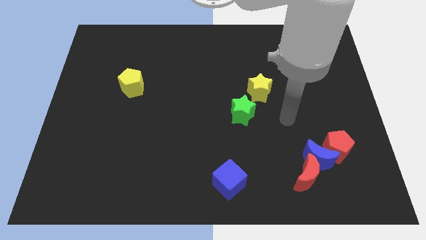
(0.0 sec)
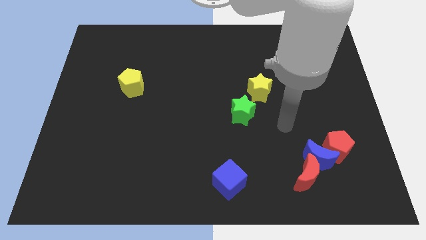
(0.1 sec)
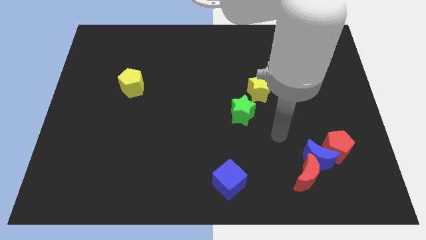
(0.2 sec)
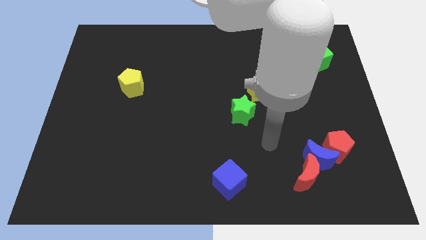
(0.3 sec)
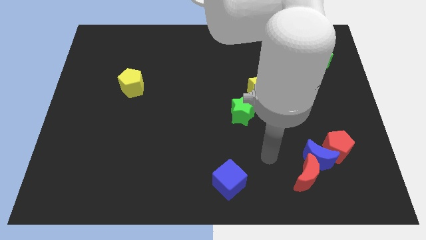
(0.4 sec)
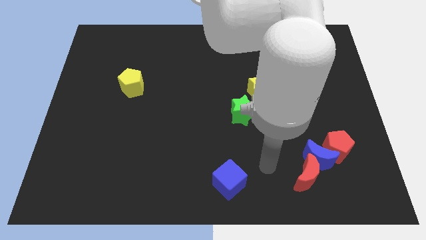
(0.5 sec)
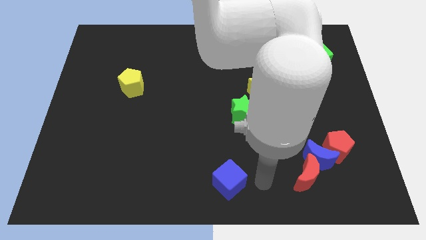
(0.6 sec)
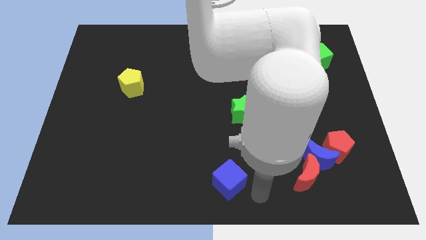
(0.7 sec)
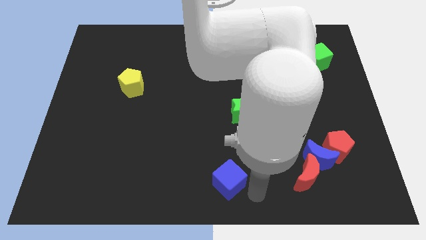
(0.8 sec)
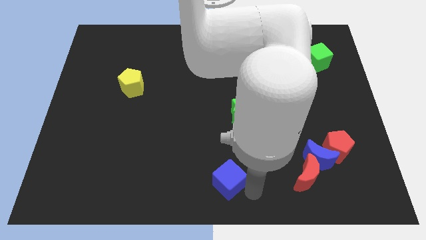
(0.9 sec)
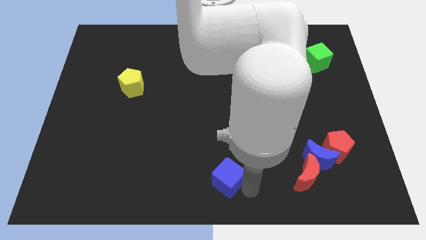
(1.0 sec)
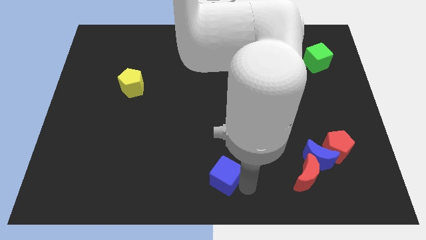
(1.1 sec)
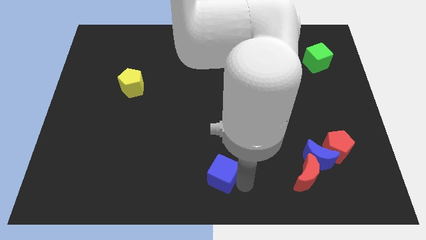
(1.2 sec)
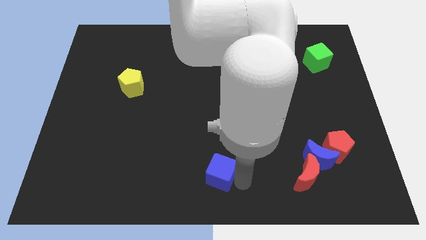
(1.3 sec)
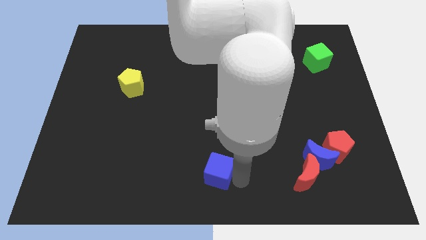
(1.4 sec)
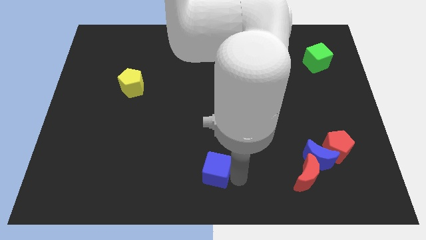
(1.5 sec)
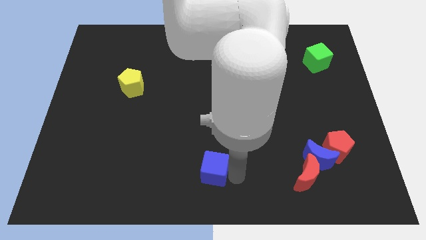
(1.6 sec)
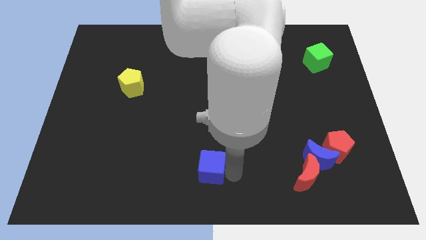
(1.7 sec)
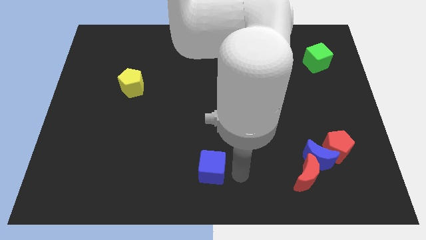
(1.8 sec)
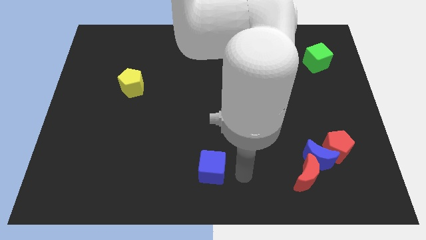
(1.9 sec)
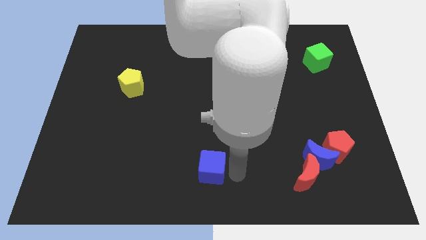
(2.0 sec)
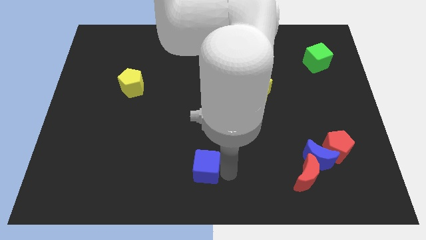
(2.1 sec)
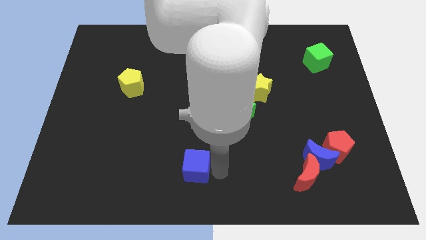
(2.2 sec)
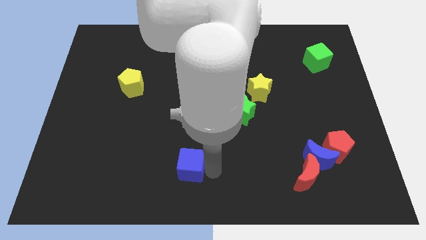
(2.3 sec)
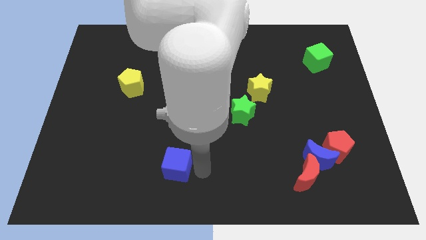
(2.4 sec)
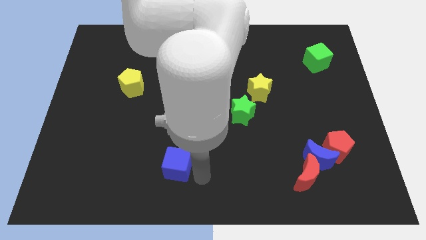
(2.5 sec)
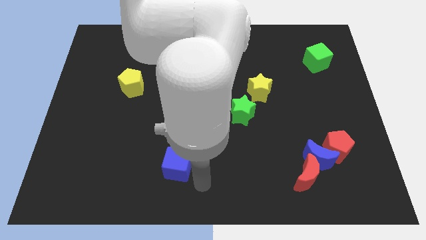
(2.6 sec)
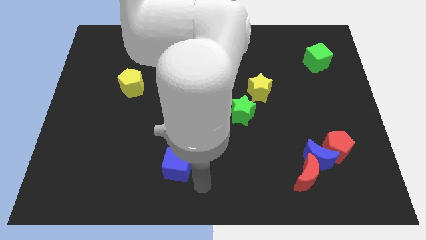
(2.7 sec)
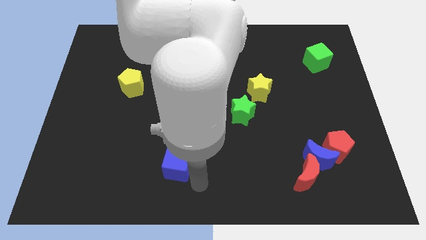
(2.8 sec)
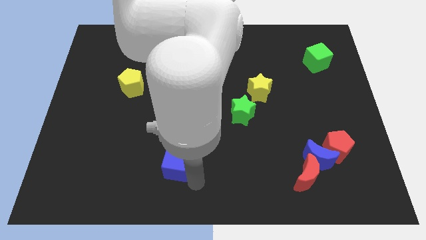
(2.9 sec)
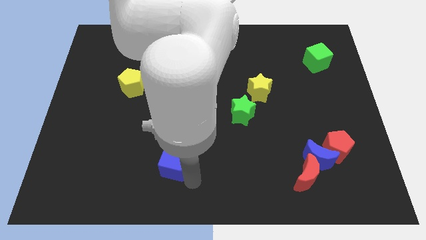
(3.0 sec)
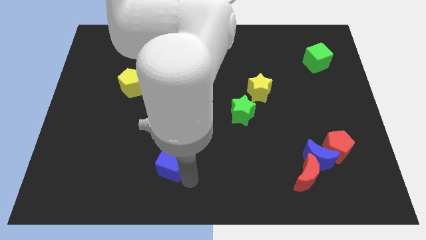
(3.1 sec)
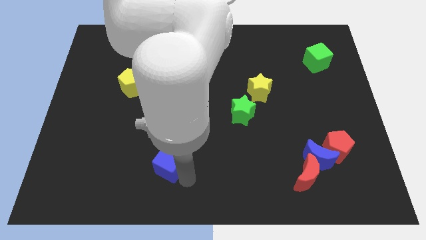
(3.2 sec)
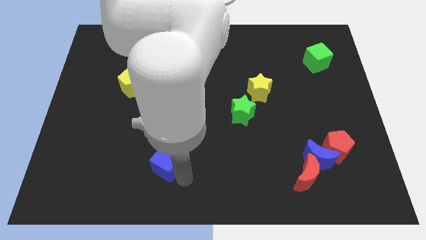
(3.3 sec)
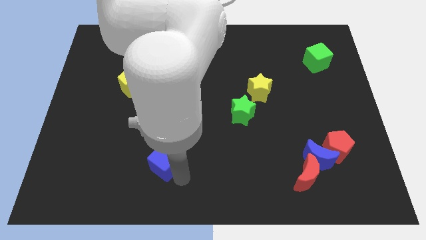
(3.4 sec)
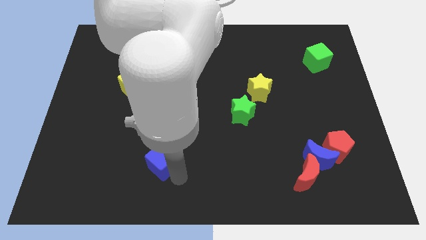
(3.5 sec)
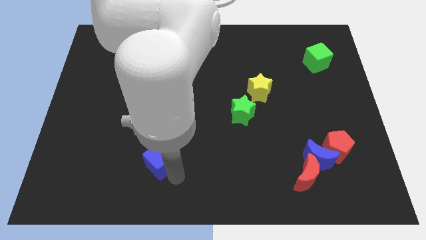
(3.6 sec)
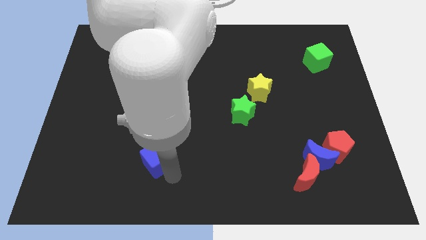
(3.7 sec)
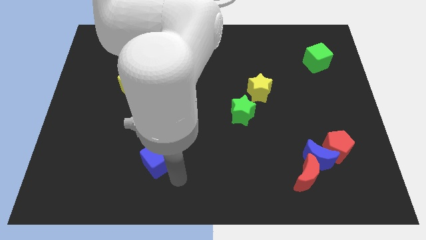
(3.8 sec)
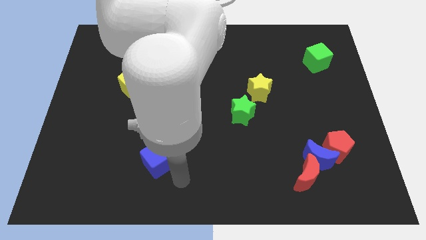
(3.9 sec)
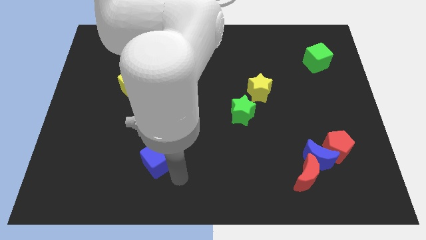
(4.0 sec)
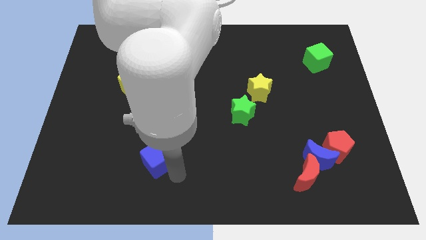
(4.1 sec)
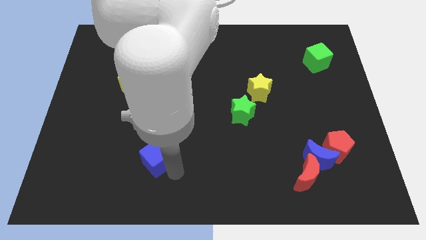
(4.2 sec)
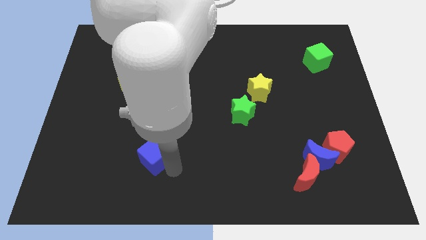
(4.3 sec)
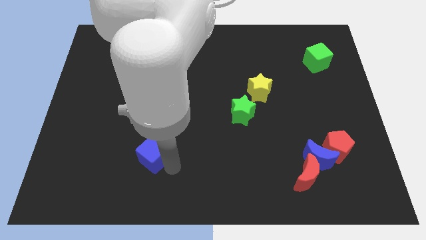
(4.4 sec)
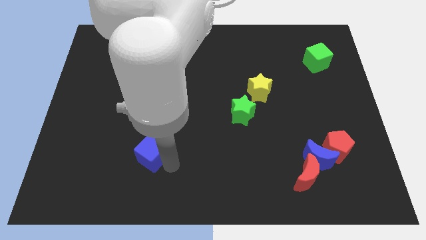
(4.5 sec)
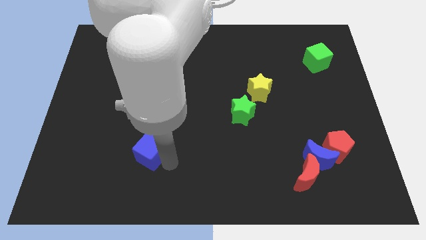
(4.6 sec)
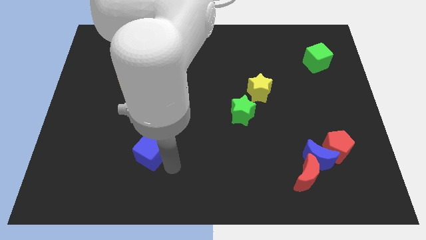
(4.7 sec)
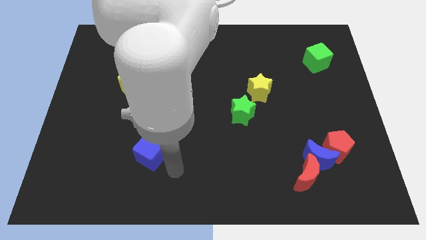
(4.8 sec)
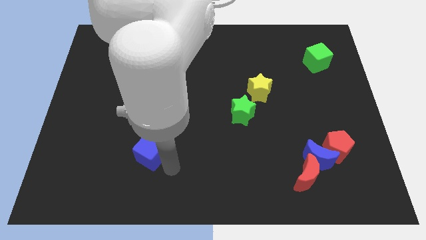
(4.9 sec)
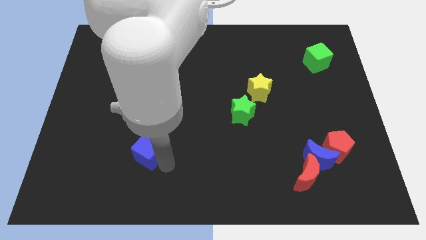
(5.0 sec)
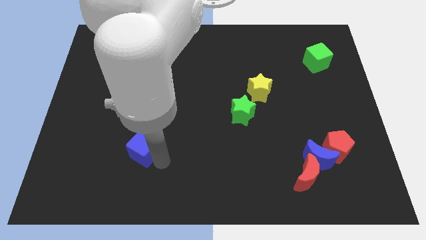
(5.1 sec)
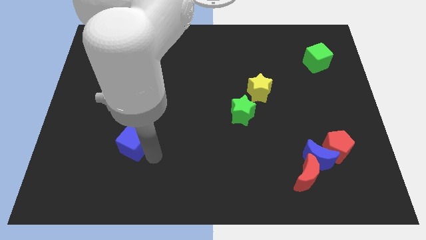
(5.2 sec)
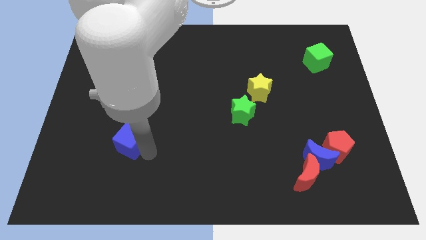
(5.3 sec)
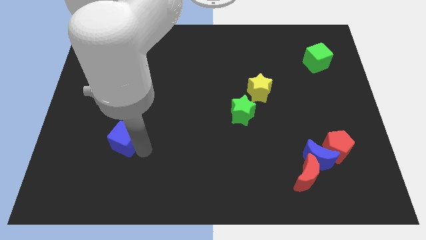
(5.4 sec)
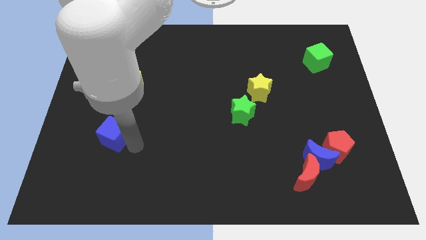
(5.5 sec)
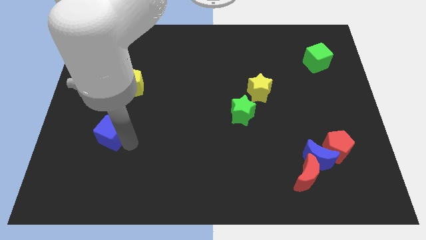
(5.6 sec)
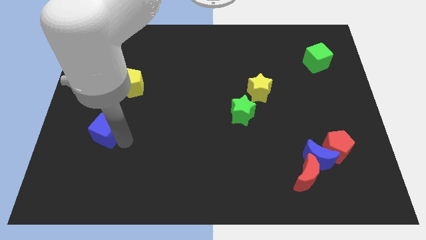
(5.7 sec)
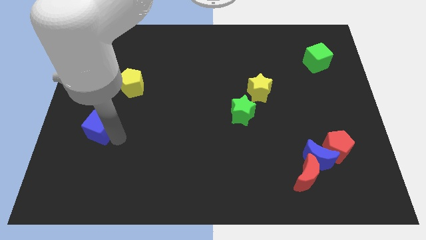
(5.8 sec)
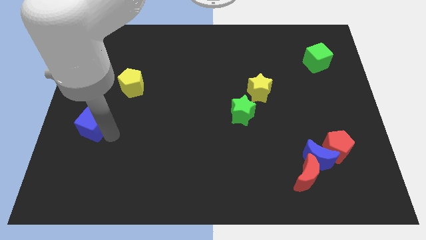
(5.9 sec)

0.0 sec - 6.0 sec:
slide the blue cube to the left side of the board
